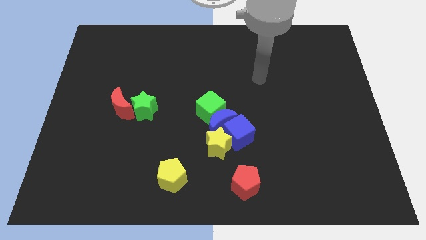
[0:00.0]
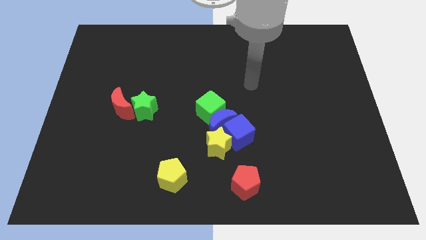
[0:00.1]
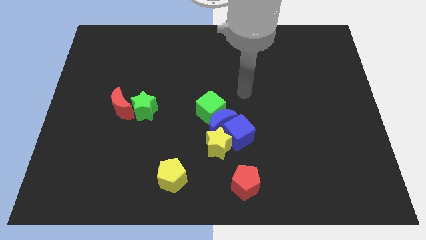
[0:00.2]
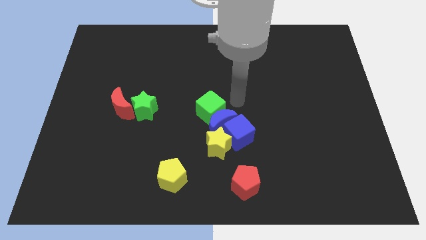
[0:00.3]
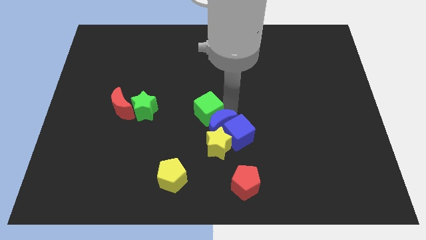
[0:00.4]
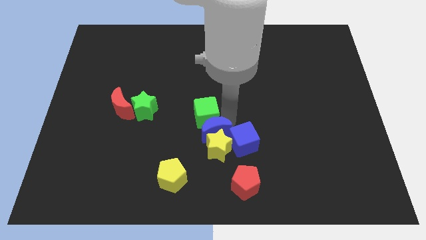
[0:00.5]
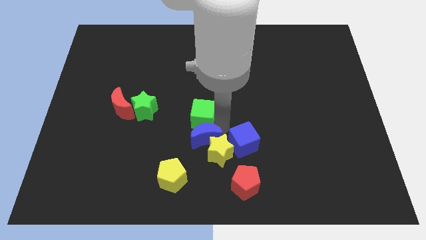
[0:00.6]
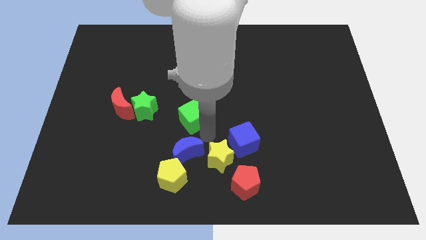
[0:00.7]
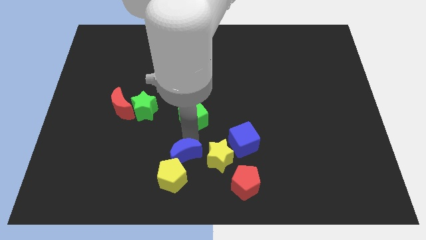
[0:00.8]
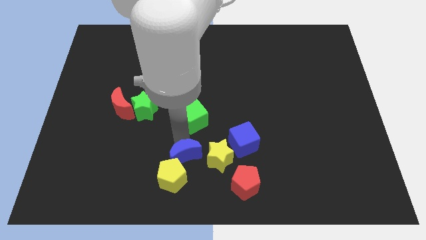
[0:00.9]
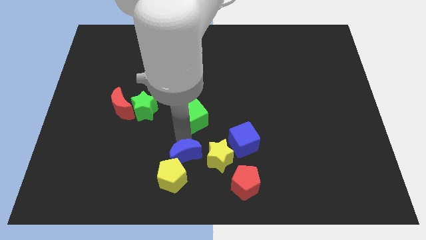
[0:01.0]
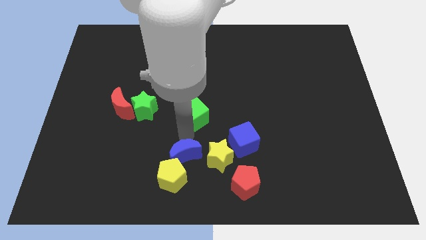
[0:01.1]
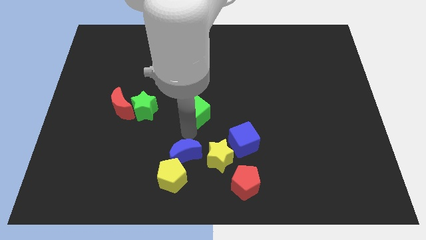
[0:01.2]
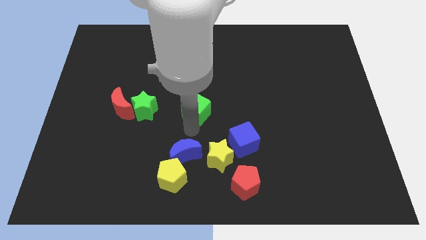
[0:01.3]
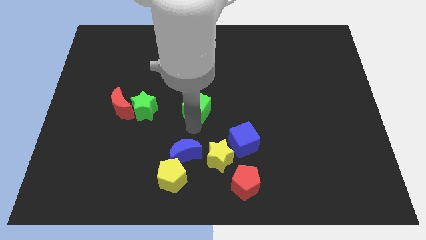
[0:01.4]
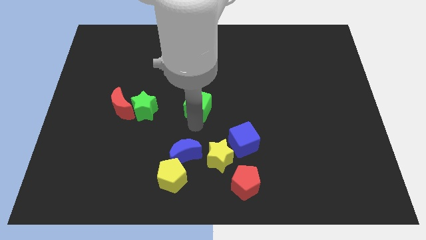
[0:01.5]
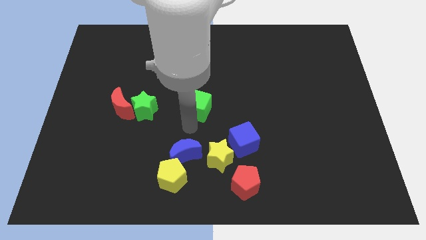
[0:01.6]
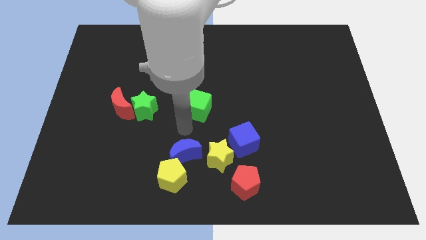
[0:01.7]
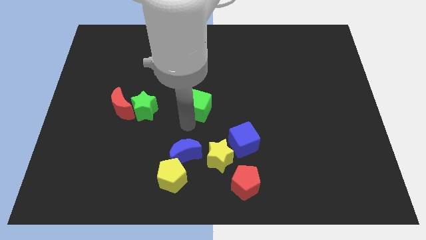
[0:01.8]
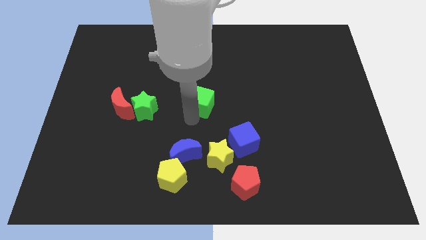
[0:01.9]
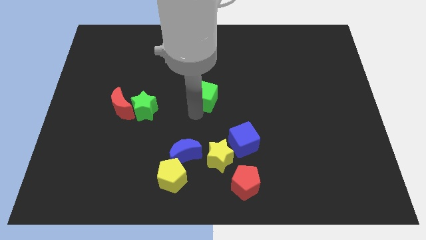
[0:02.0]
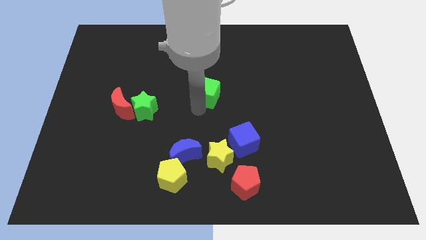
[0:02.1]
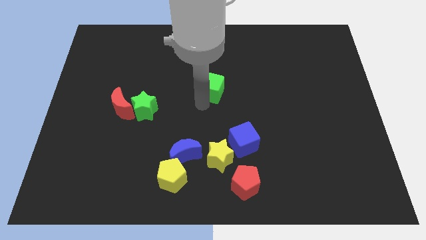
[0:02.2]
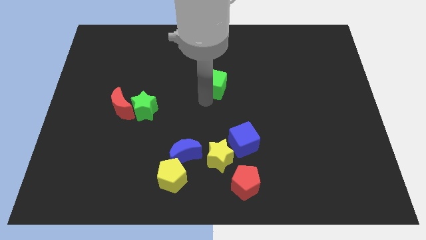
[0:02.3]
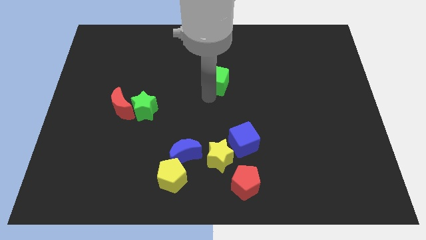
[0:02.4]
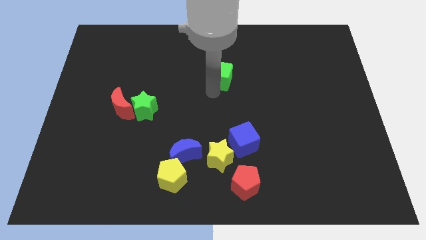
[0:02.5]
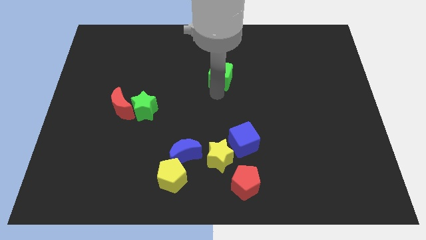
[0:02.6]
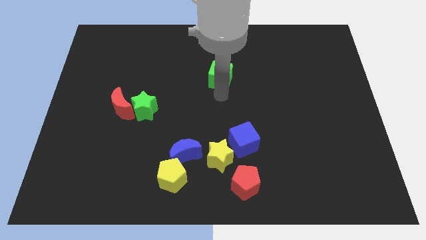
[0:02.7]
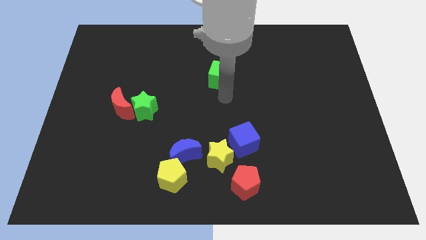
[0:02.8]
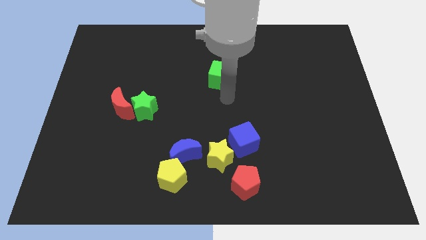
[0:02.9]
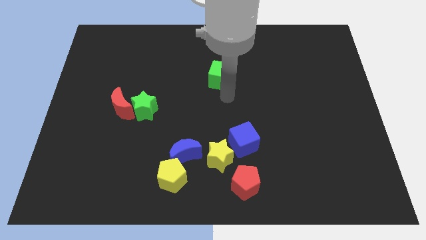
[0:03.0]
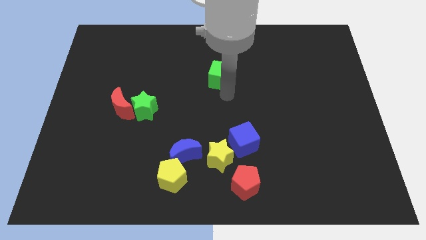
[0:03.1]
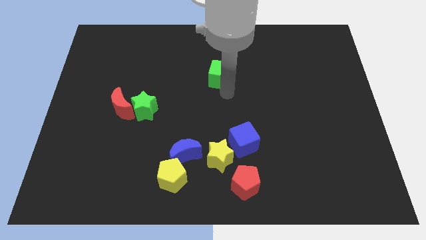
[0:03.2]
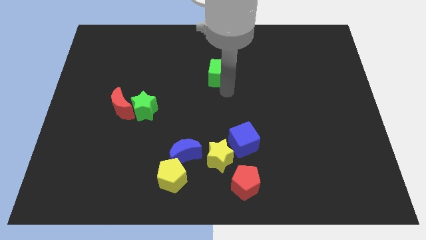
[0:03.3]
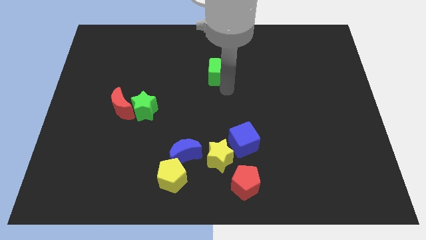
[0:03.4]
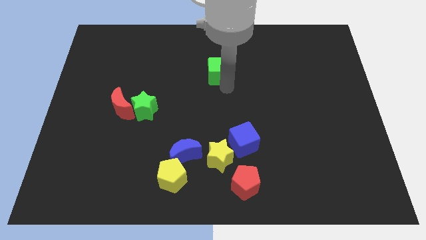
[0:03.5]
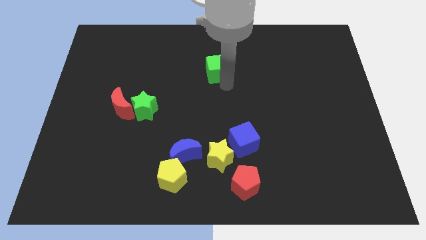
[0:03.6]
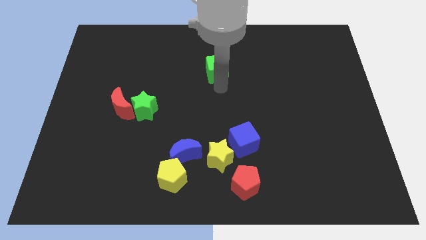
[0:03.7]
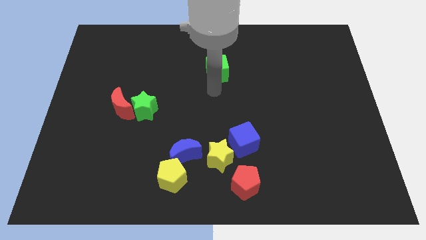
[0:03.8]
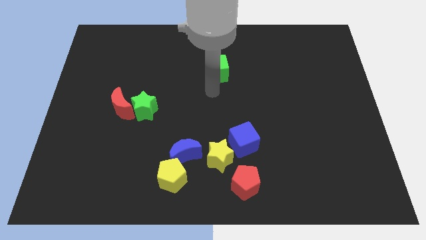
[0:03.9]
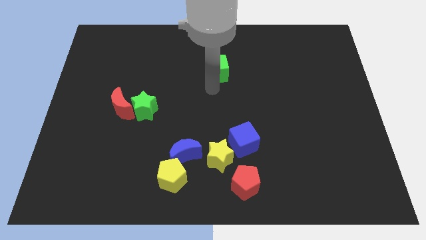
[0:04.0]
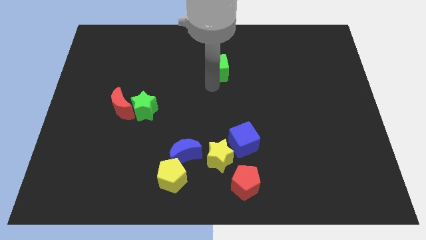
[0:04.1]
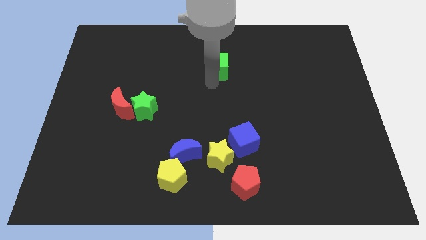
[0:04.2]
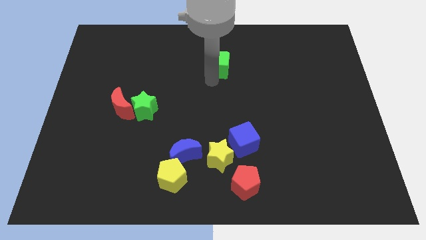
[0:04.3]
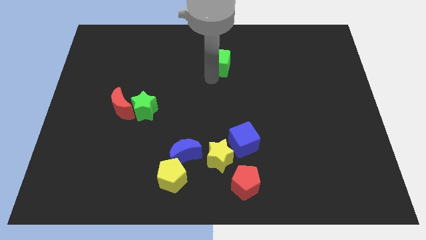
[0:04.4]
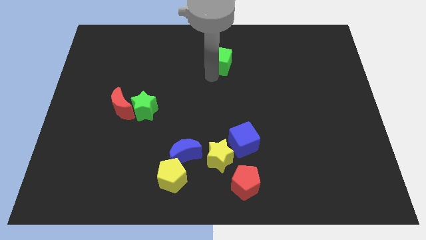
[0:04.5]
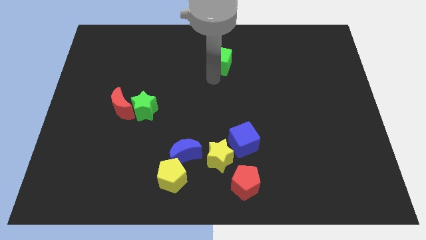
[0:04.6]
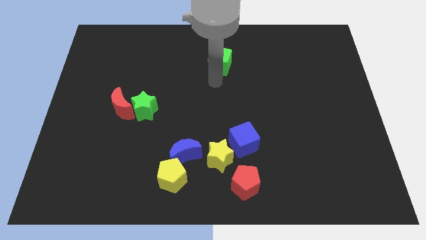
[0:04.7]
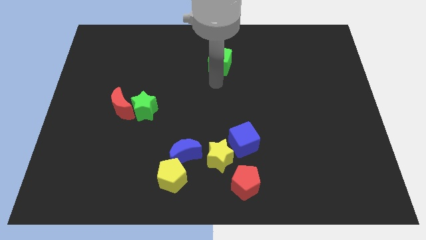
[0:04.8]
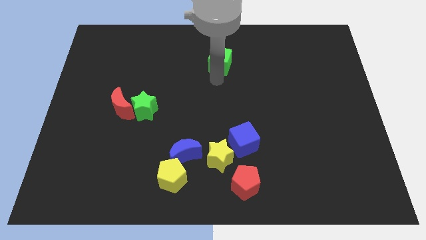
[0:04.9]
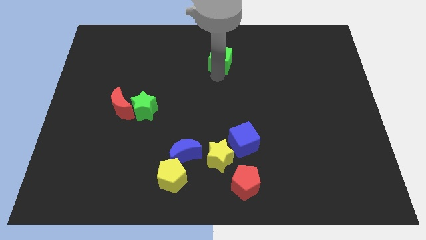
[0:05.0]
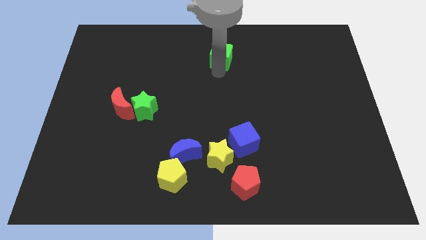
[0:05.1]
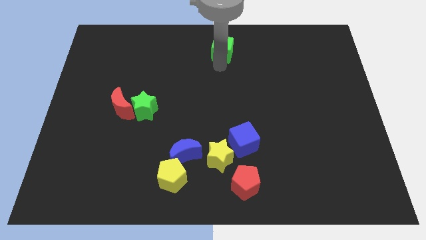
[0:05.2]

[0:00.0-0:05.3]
move the green cube to the towards your base

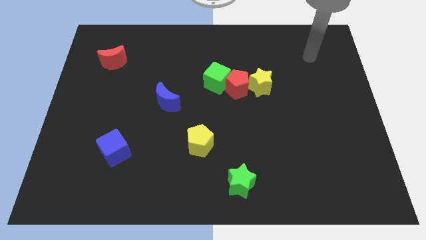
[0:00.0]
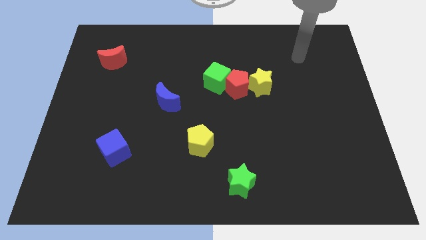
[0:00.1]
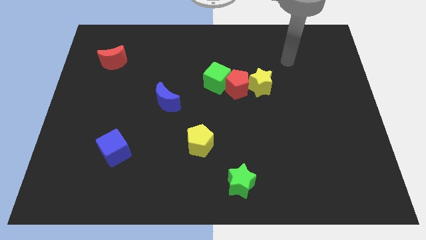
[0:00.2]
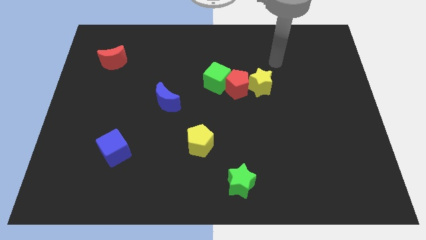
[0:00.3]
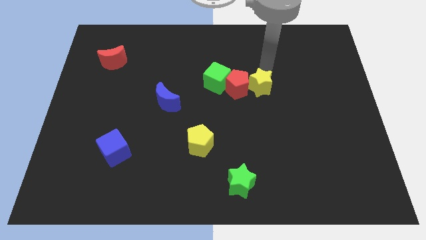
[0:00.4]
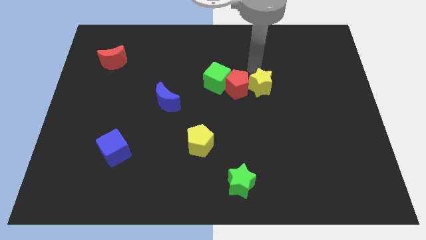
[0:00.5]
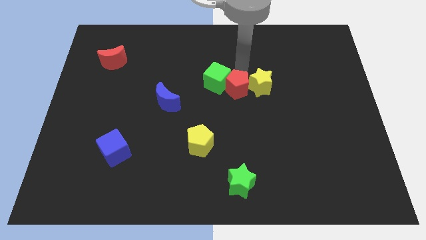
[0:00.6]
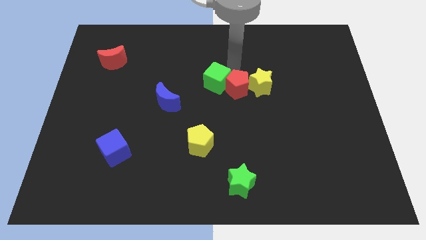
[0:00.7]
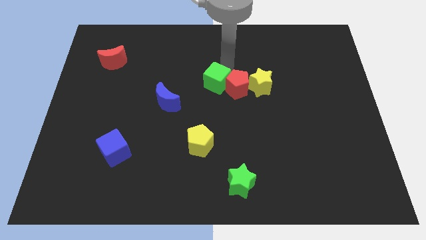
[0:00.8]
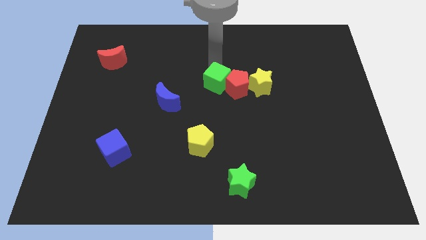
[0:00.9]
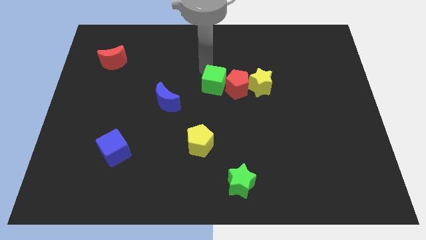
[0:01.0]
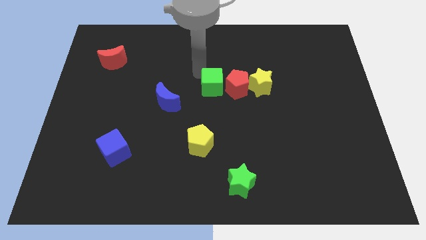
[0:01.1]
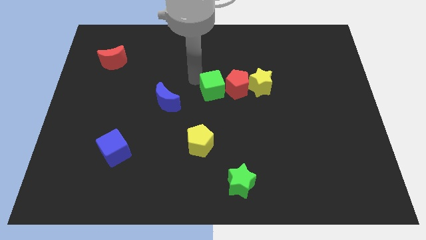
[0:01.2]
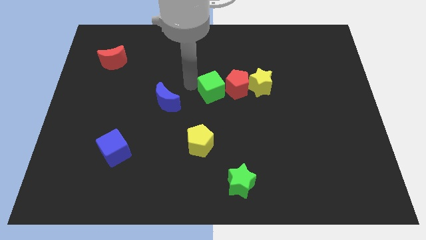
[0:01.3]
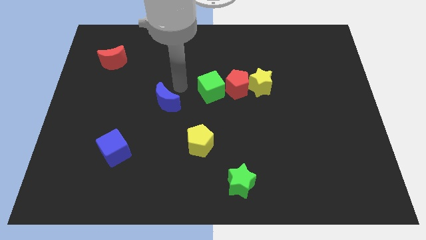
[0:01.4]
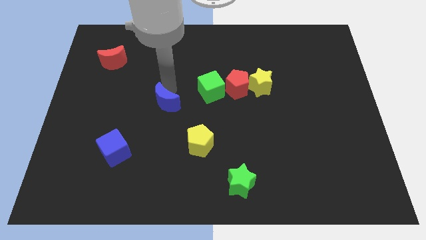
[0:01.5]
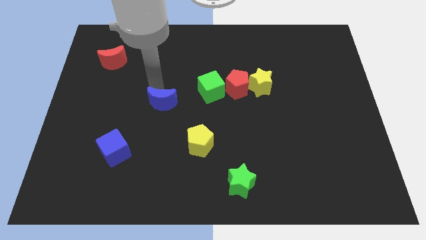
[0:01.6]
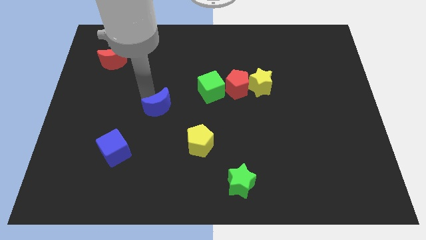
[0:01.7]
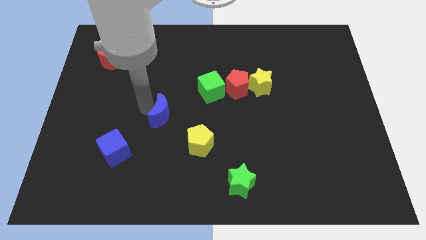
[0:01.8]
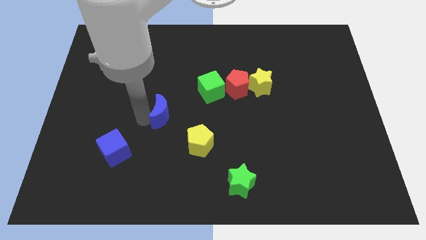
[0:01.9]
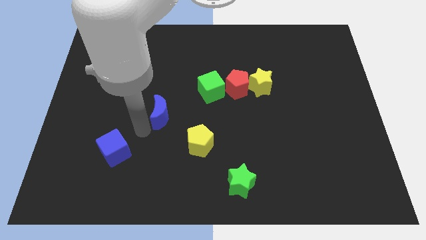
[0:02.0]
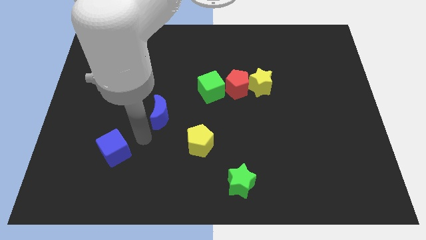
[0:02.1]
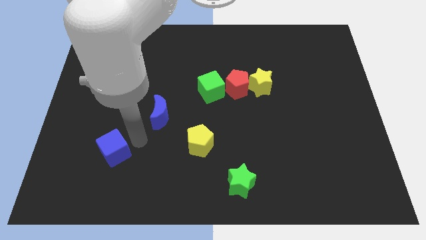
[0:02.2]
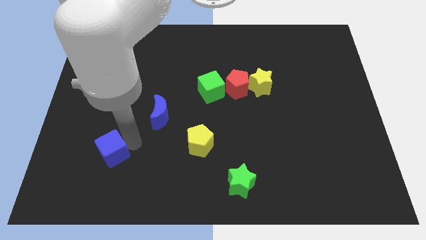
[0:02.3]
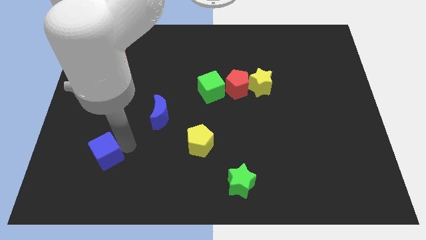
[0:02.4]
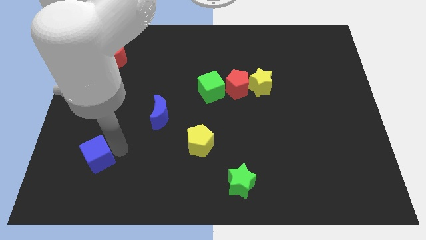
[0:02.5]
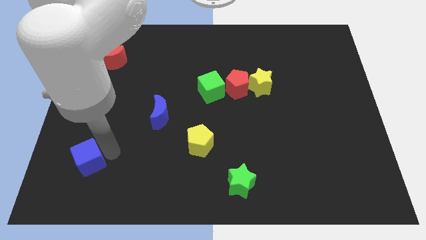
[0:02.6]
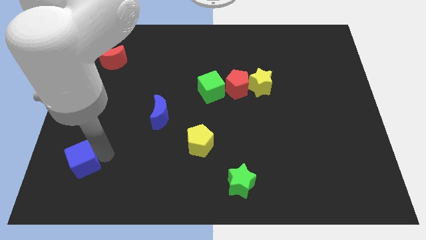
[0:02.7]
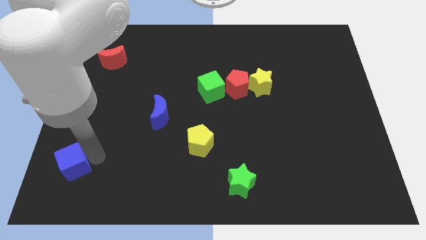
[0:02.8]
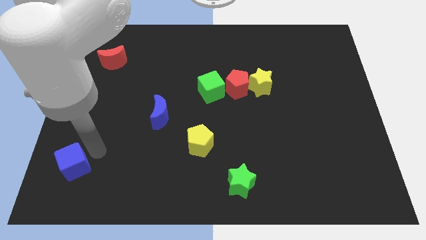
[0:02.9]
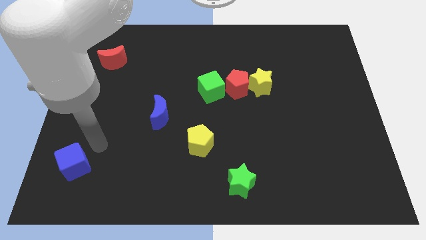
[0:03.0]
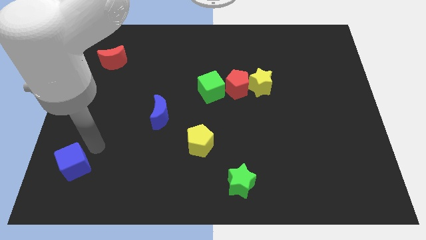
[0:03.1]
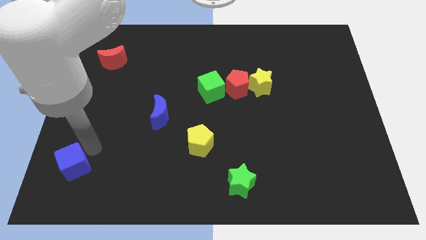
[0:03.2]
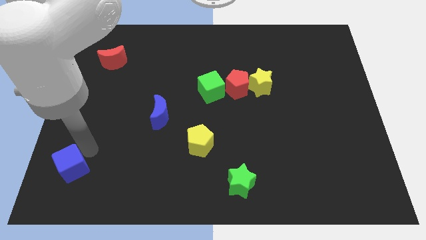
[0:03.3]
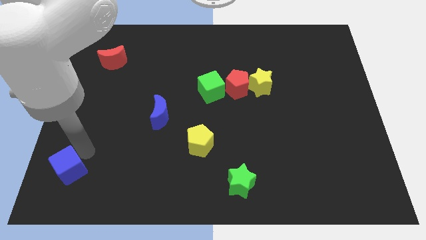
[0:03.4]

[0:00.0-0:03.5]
slide the blue cube to the bottom left corner
